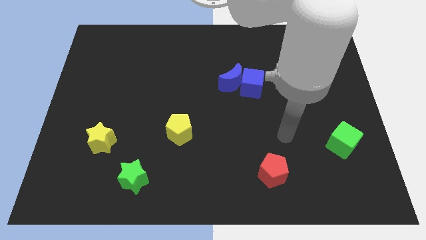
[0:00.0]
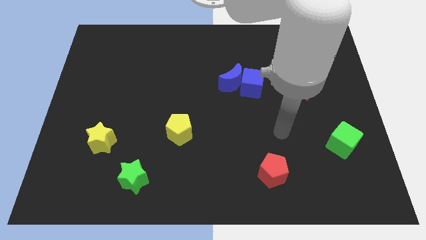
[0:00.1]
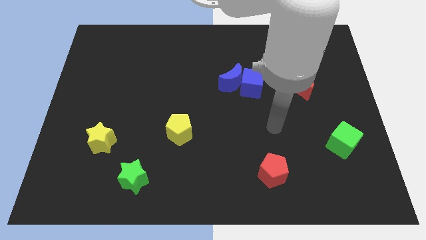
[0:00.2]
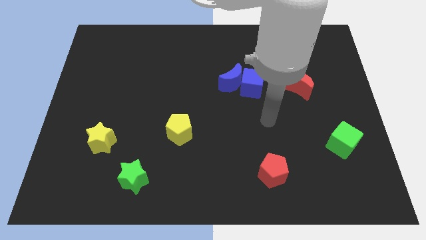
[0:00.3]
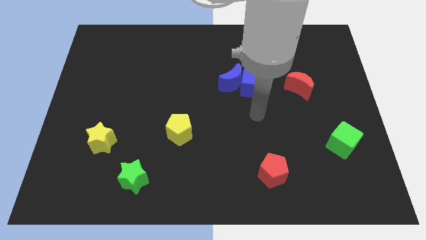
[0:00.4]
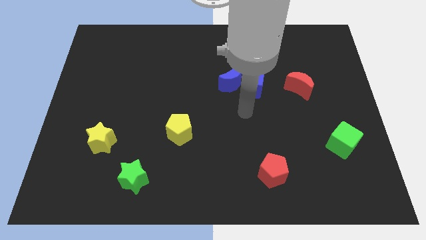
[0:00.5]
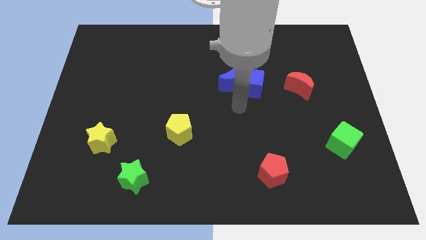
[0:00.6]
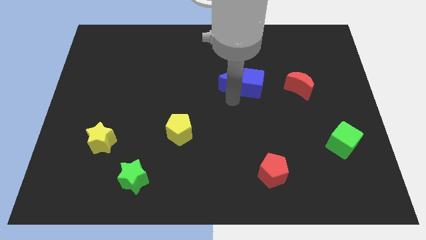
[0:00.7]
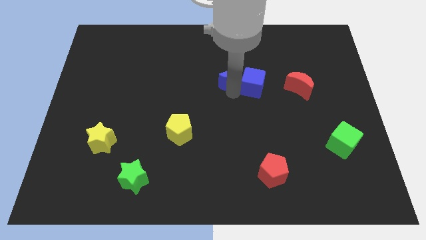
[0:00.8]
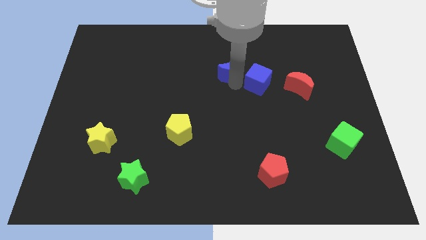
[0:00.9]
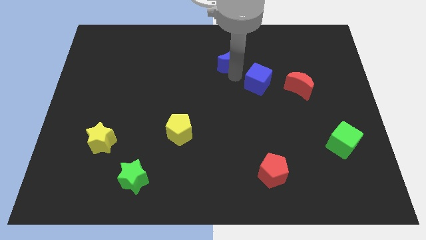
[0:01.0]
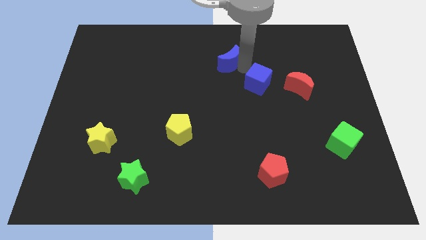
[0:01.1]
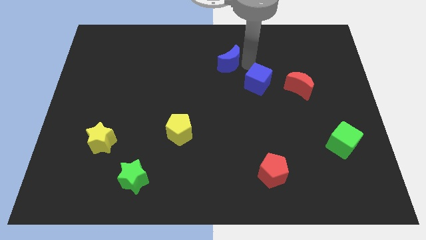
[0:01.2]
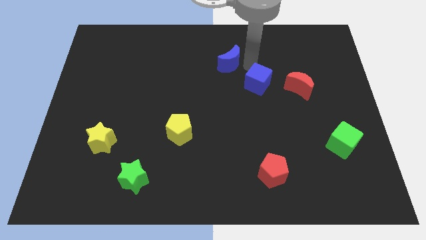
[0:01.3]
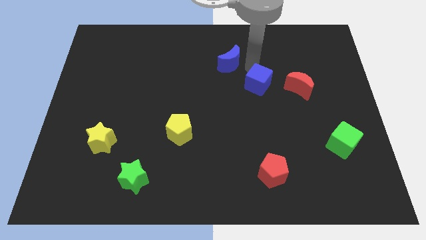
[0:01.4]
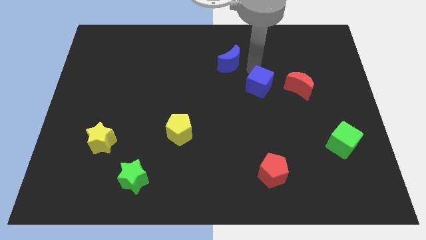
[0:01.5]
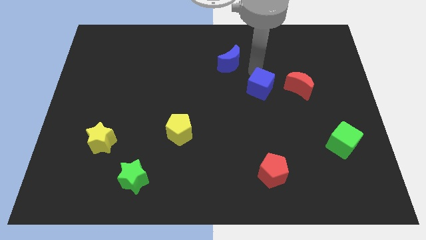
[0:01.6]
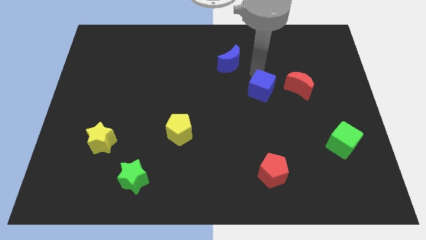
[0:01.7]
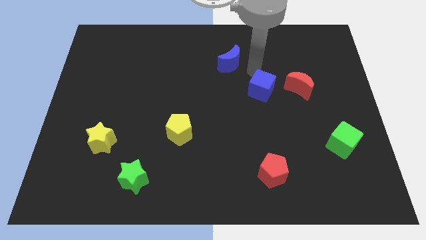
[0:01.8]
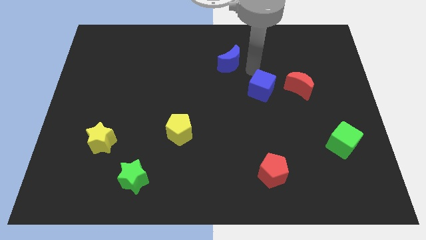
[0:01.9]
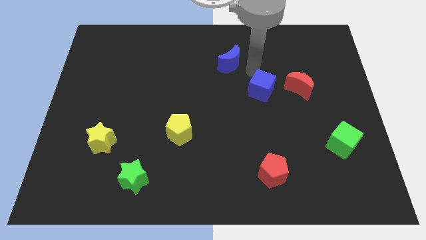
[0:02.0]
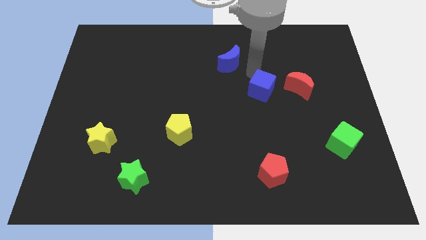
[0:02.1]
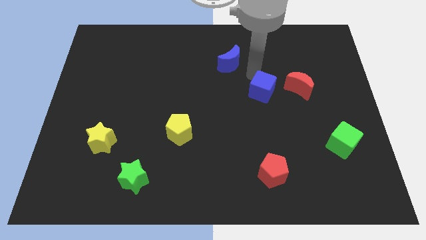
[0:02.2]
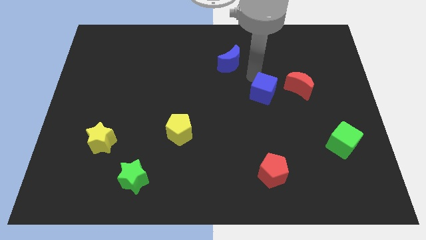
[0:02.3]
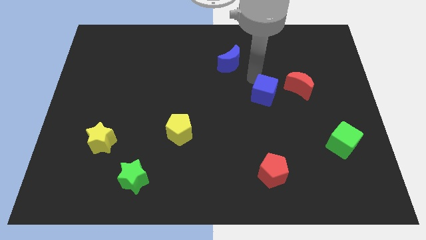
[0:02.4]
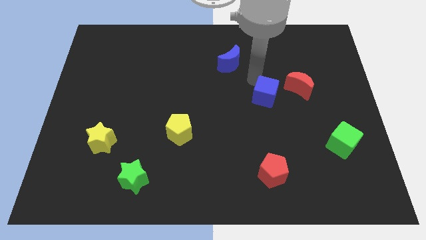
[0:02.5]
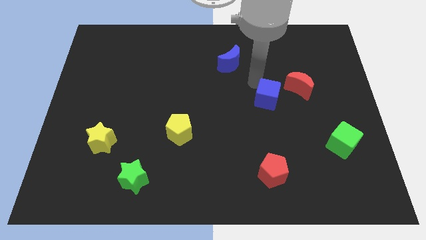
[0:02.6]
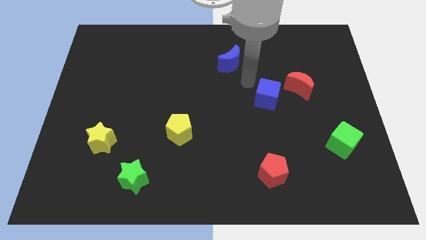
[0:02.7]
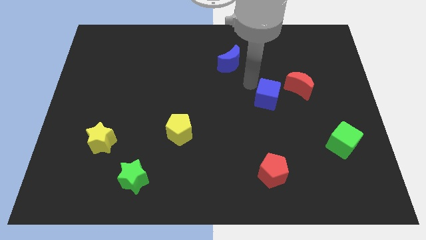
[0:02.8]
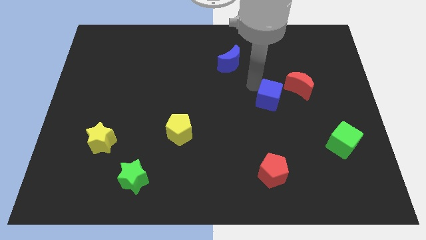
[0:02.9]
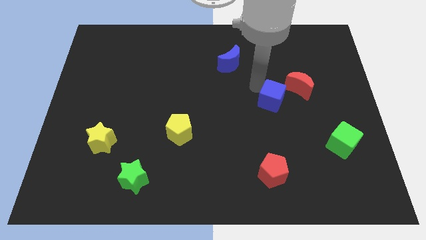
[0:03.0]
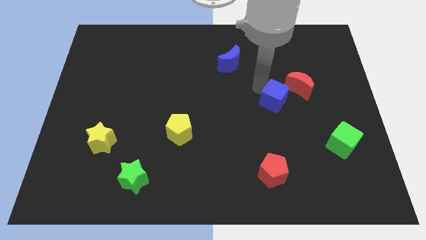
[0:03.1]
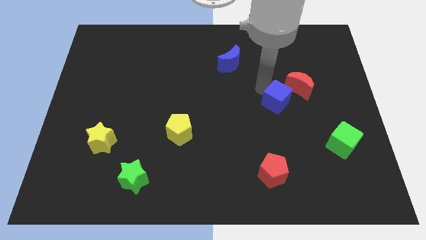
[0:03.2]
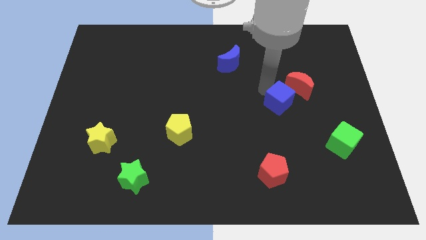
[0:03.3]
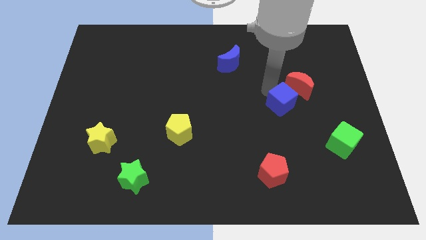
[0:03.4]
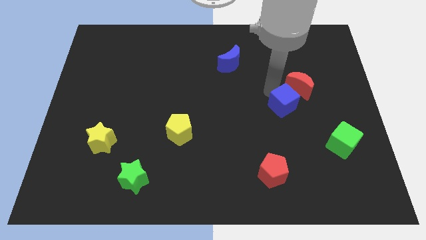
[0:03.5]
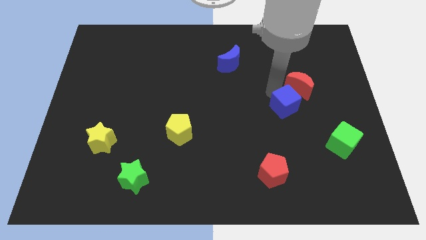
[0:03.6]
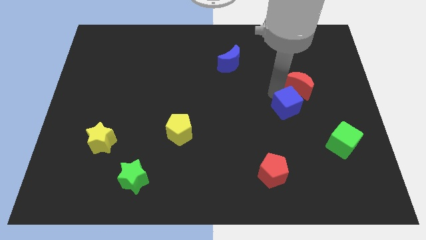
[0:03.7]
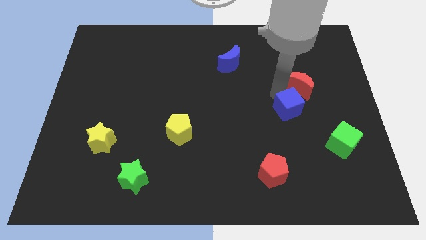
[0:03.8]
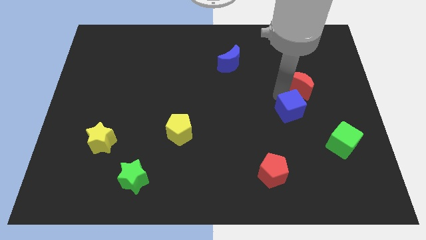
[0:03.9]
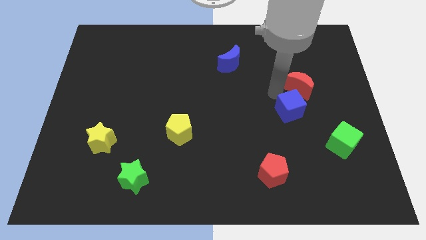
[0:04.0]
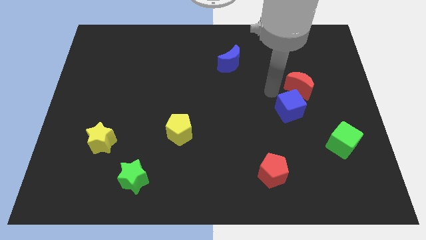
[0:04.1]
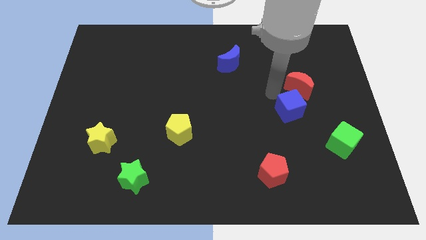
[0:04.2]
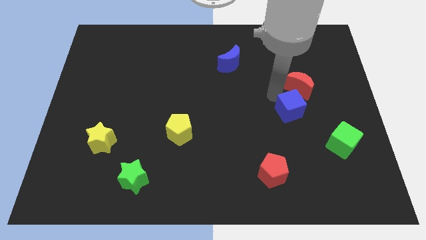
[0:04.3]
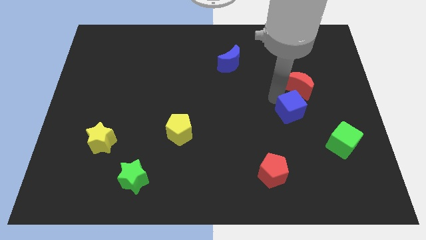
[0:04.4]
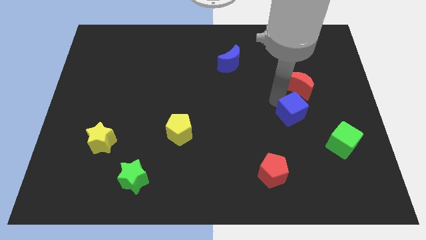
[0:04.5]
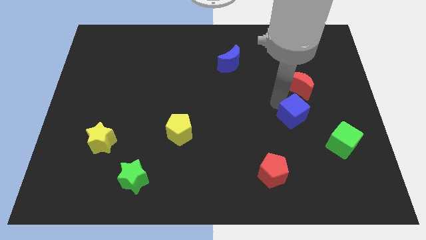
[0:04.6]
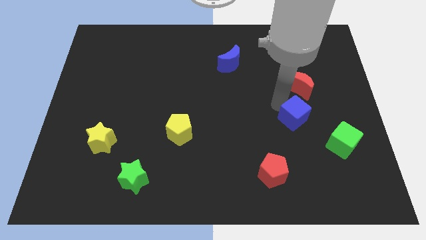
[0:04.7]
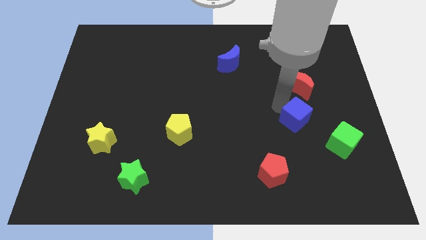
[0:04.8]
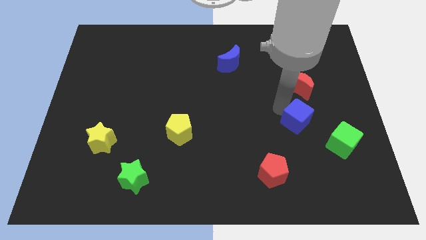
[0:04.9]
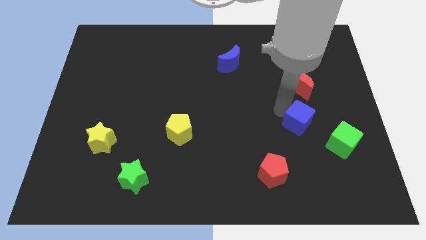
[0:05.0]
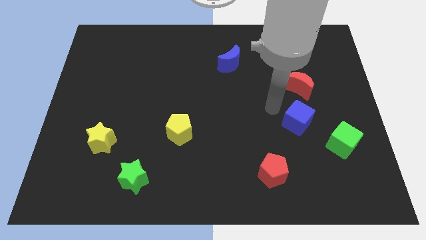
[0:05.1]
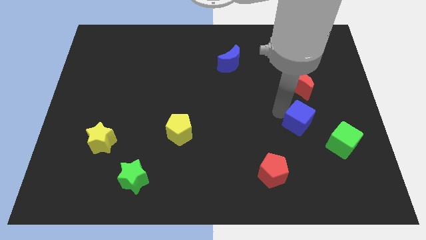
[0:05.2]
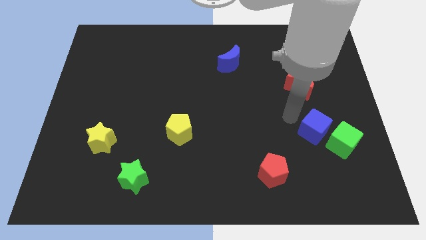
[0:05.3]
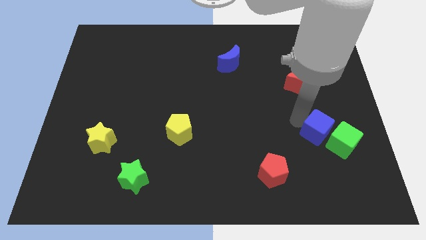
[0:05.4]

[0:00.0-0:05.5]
move the blue cube towards the green cube
